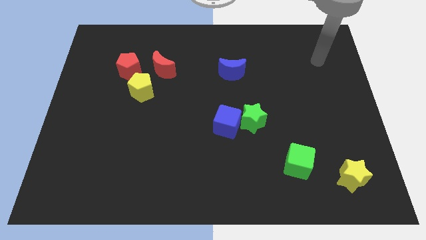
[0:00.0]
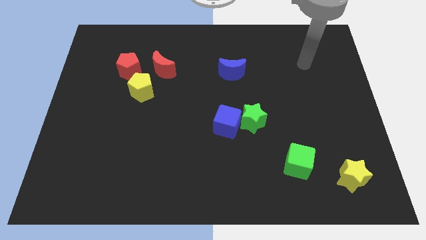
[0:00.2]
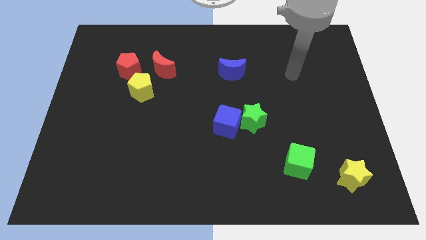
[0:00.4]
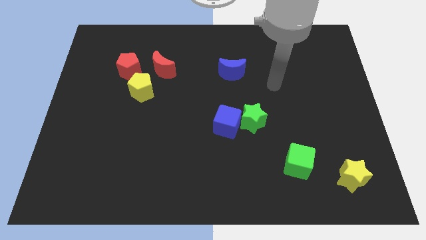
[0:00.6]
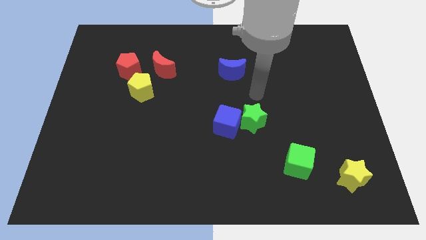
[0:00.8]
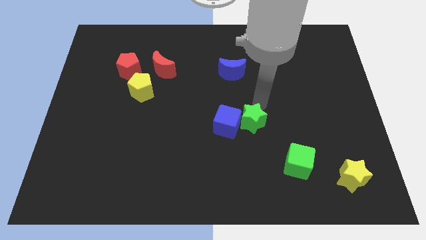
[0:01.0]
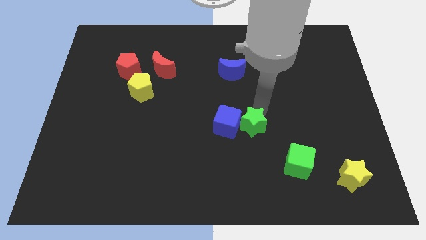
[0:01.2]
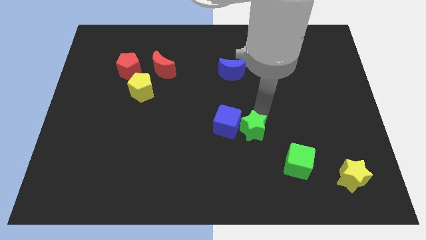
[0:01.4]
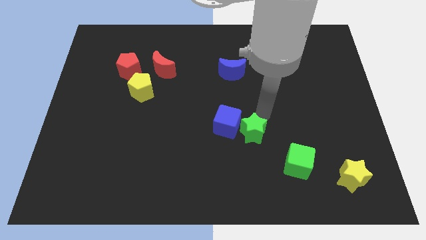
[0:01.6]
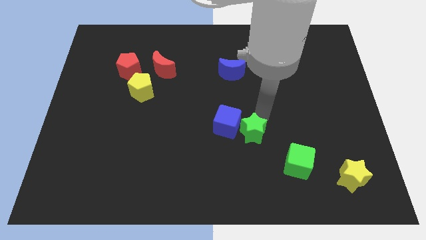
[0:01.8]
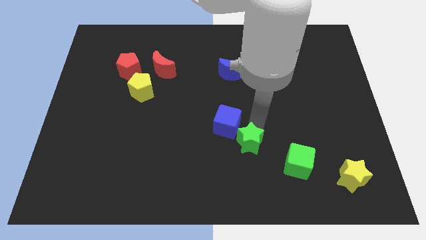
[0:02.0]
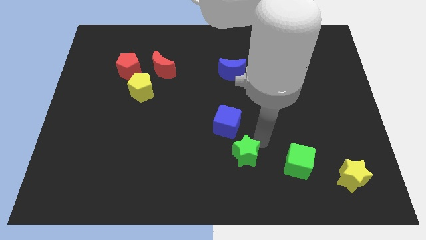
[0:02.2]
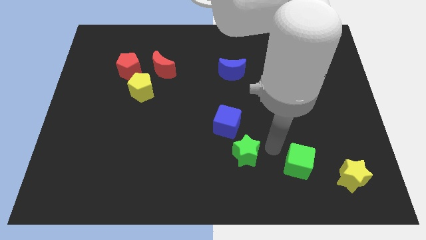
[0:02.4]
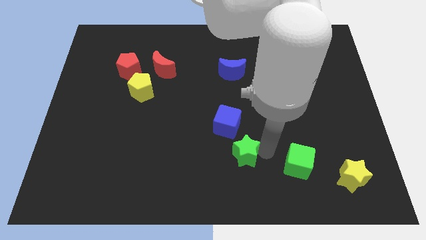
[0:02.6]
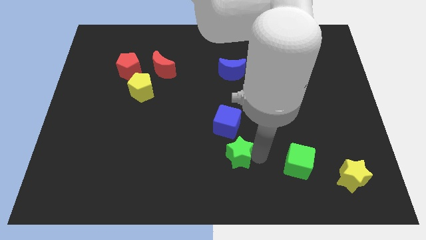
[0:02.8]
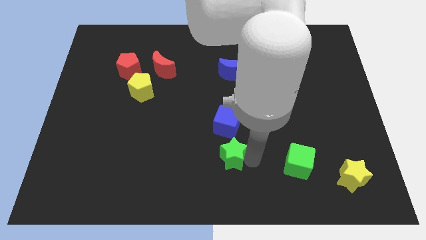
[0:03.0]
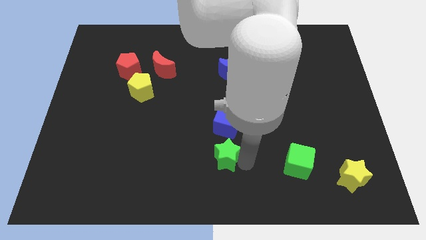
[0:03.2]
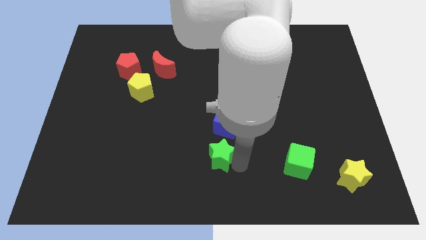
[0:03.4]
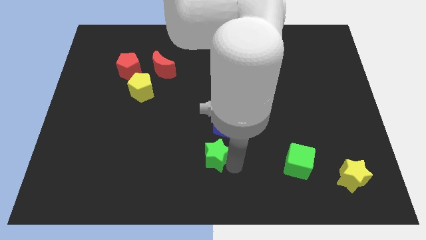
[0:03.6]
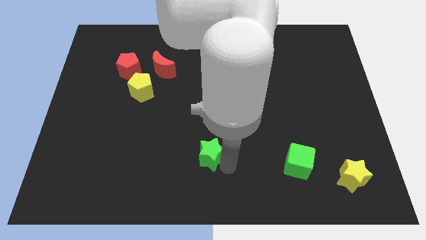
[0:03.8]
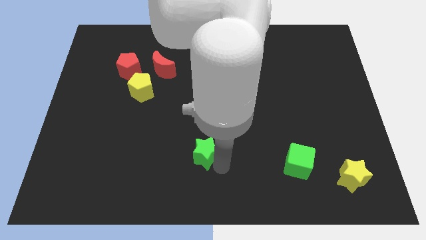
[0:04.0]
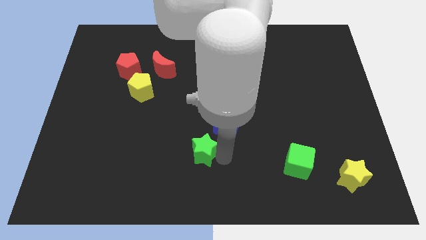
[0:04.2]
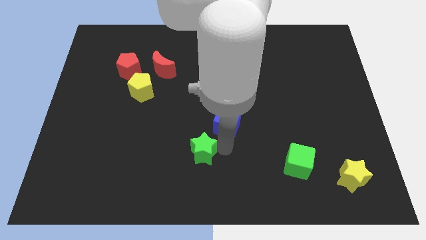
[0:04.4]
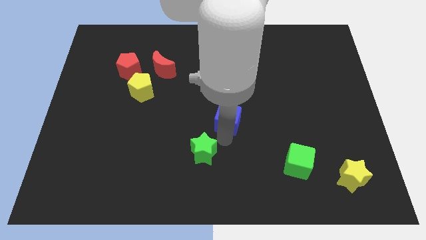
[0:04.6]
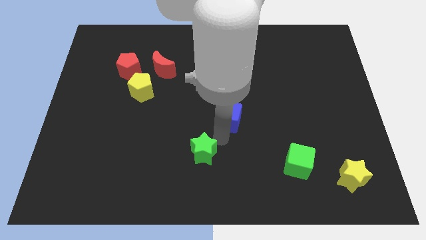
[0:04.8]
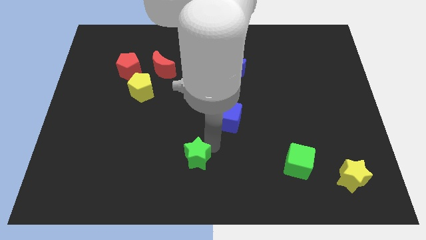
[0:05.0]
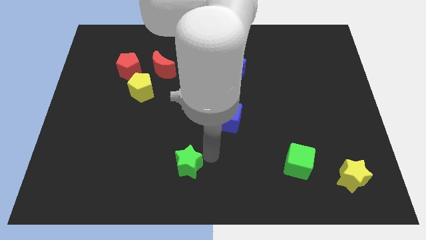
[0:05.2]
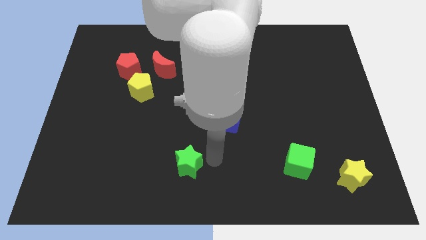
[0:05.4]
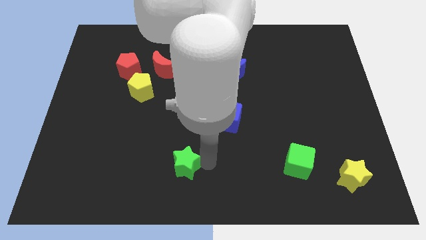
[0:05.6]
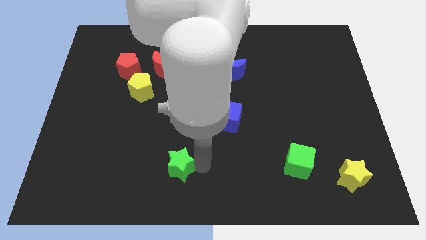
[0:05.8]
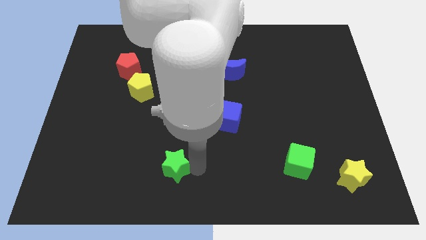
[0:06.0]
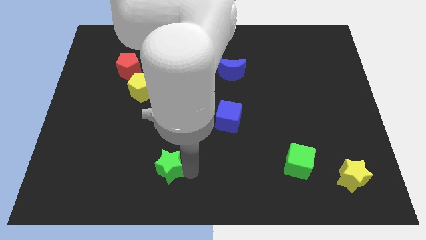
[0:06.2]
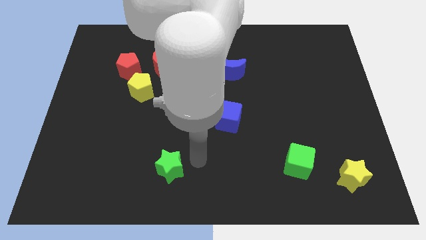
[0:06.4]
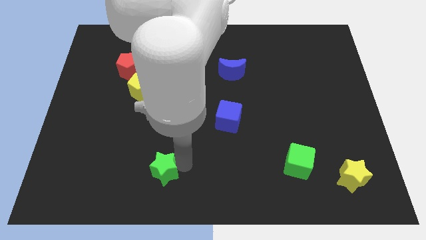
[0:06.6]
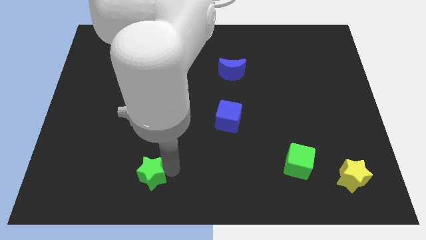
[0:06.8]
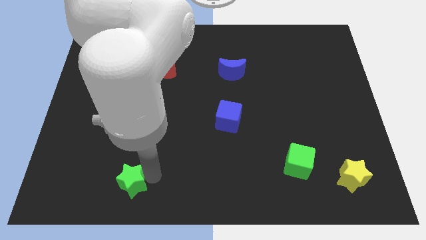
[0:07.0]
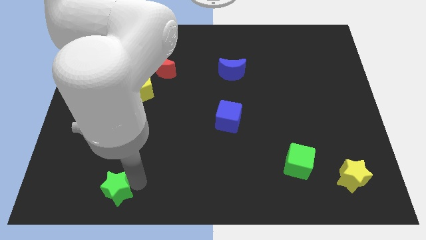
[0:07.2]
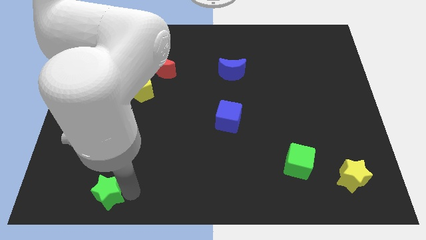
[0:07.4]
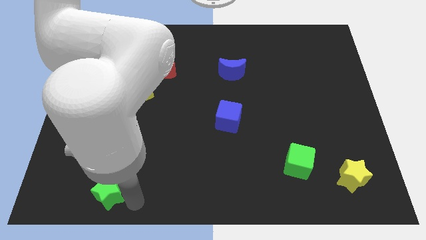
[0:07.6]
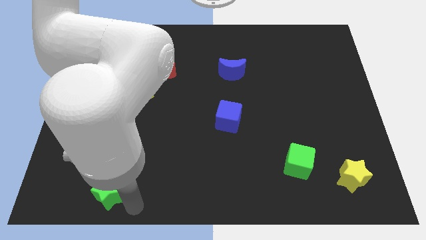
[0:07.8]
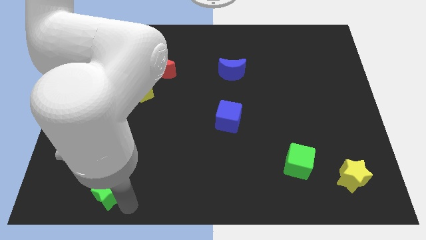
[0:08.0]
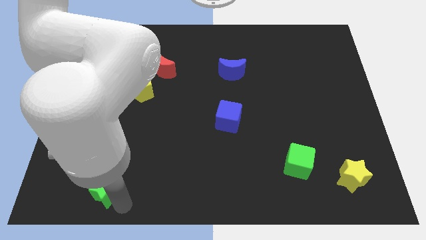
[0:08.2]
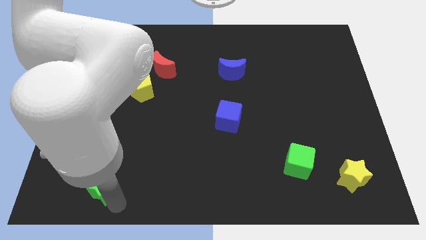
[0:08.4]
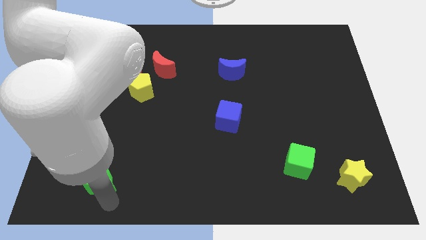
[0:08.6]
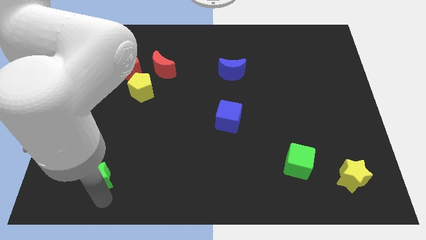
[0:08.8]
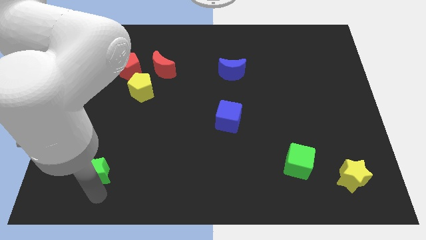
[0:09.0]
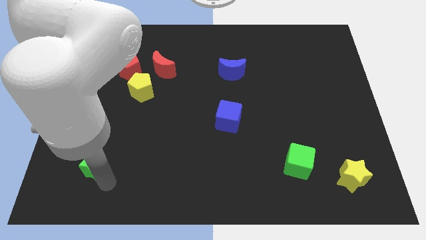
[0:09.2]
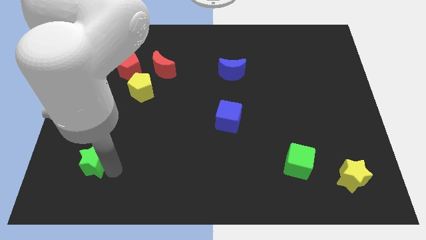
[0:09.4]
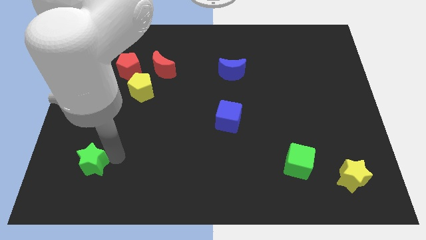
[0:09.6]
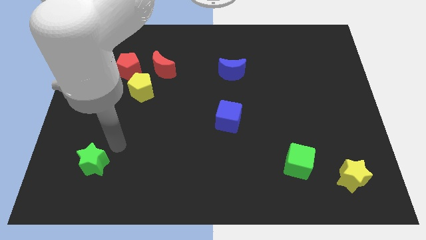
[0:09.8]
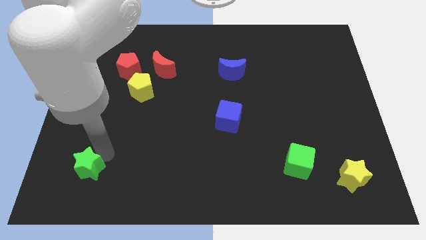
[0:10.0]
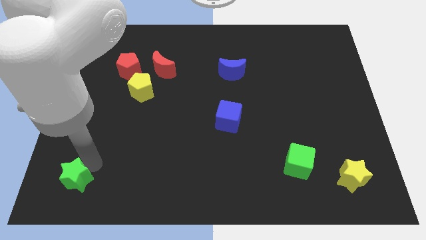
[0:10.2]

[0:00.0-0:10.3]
slide the green star to the bottom left of the board
